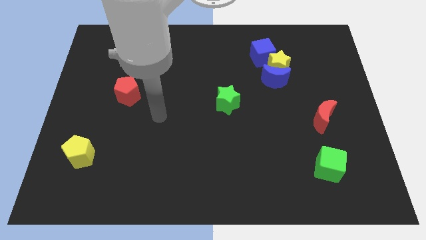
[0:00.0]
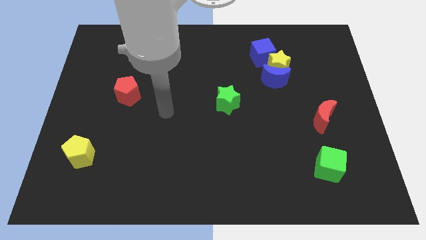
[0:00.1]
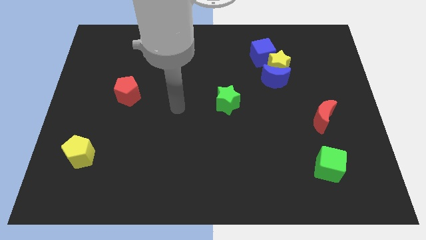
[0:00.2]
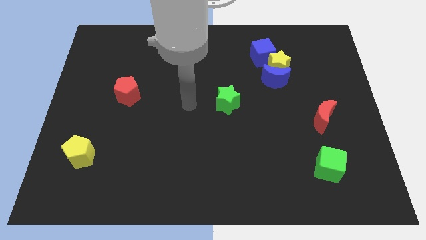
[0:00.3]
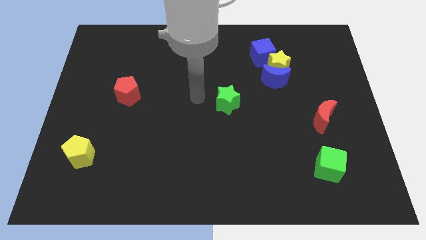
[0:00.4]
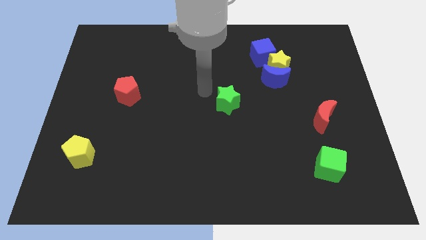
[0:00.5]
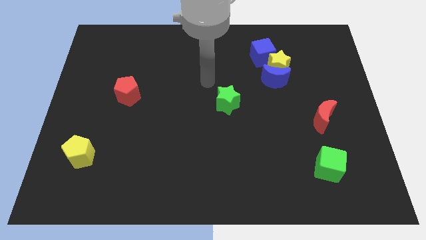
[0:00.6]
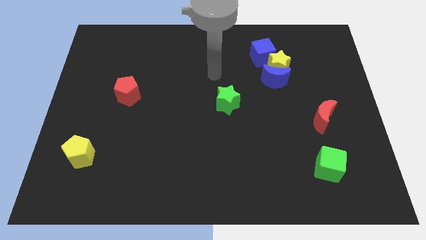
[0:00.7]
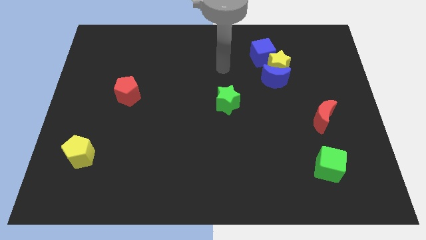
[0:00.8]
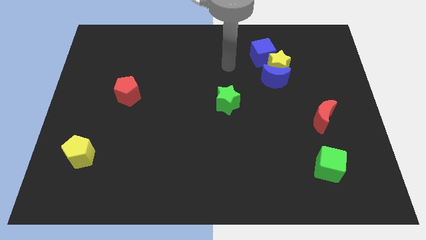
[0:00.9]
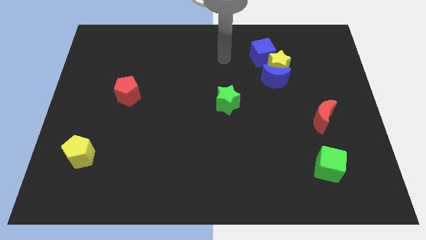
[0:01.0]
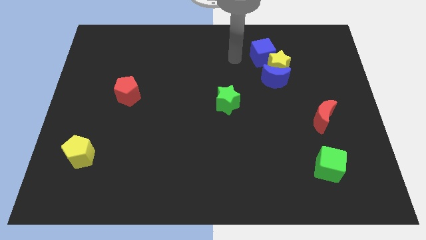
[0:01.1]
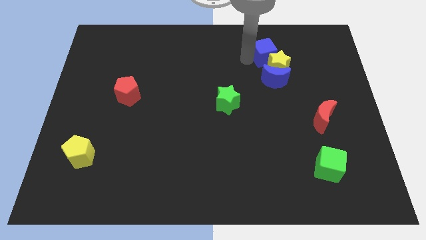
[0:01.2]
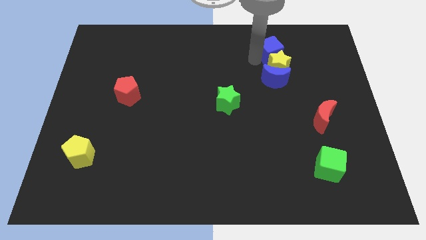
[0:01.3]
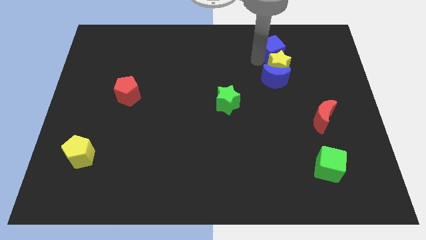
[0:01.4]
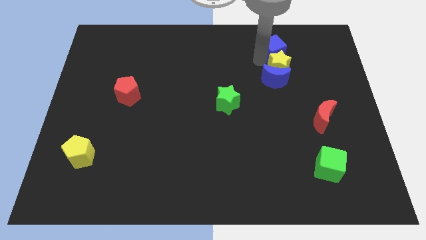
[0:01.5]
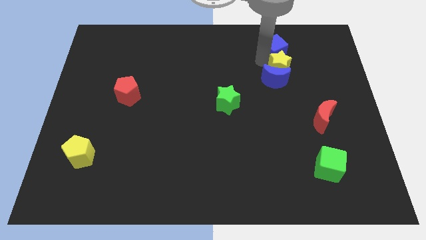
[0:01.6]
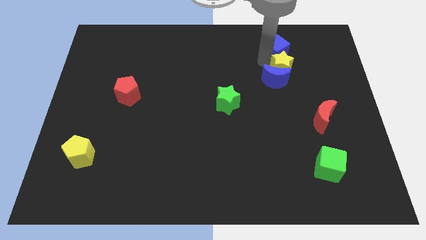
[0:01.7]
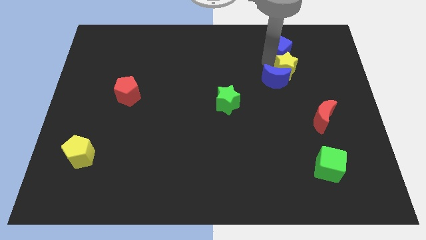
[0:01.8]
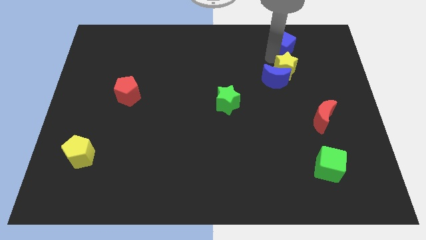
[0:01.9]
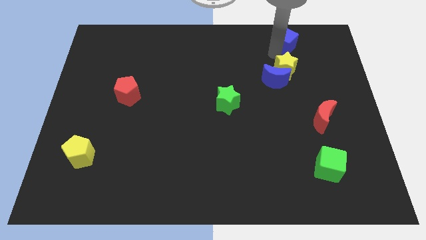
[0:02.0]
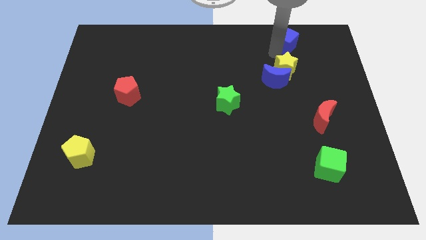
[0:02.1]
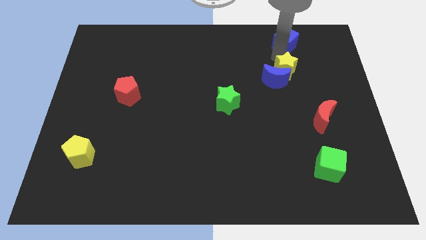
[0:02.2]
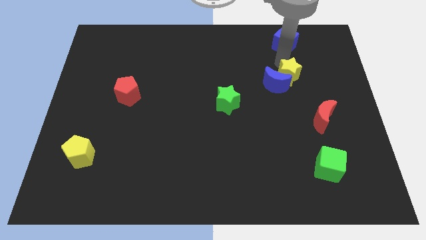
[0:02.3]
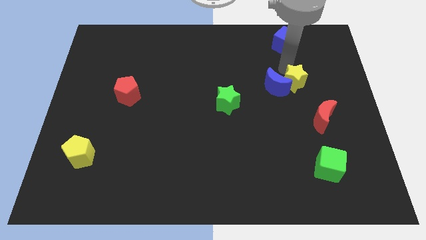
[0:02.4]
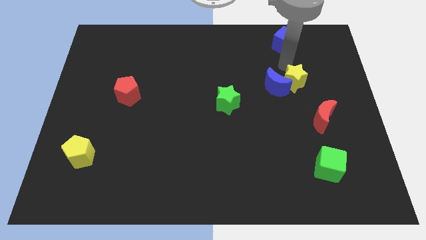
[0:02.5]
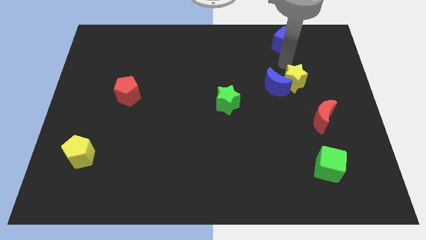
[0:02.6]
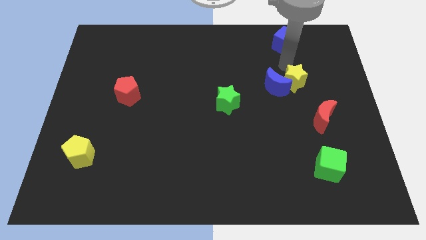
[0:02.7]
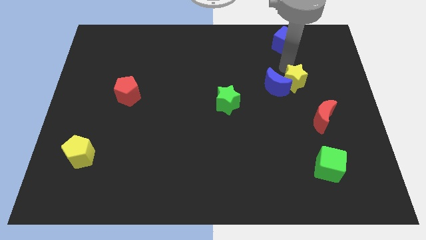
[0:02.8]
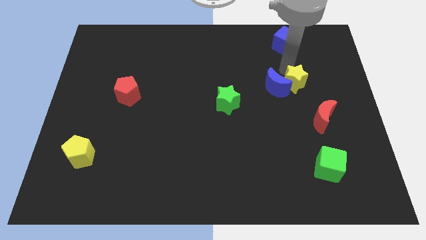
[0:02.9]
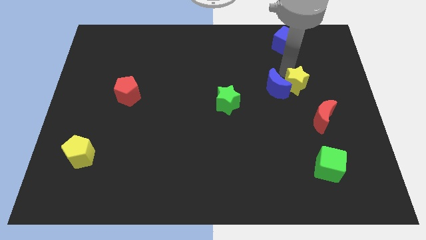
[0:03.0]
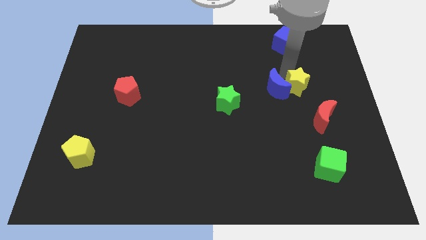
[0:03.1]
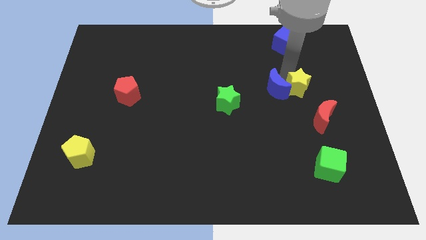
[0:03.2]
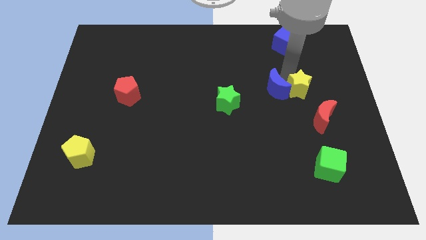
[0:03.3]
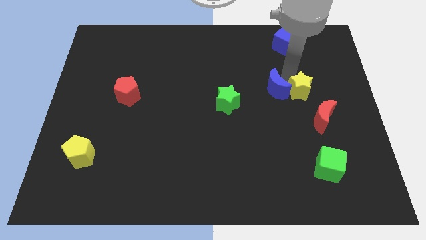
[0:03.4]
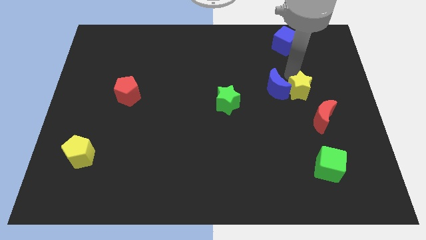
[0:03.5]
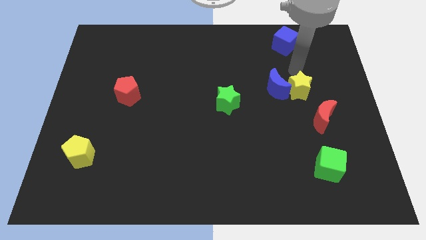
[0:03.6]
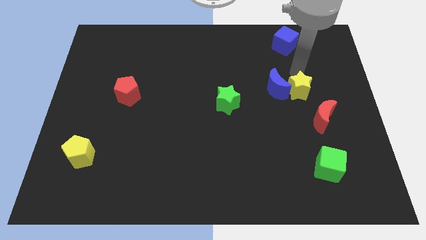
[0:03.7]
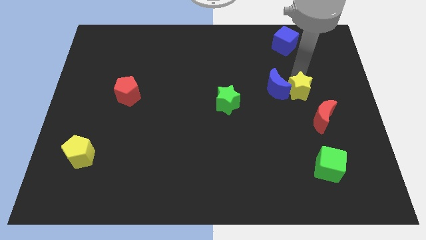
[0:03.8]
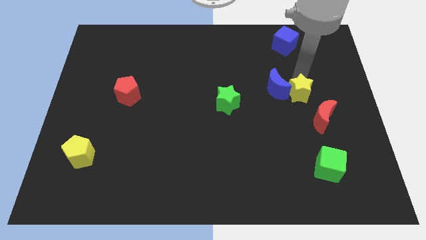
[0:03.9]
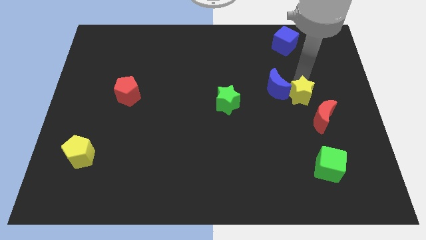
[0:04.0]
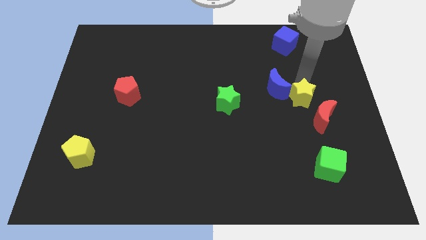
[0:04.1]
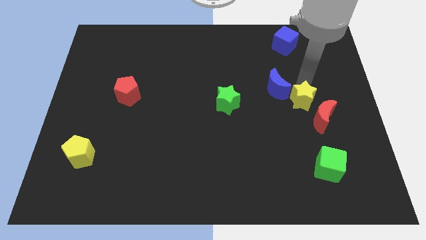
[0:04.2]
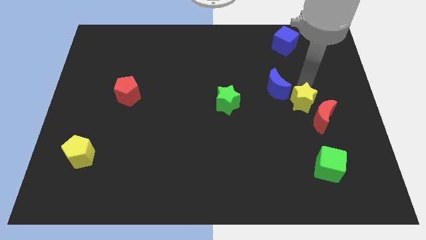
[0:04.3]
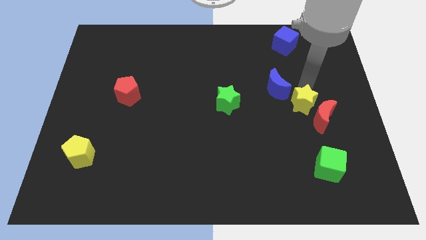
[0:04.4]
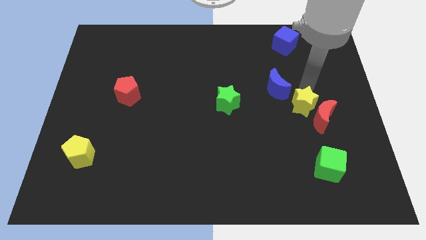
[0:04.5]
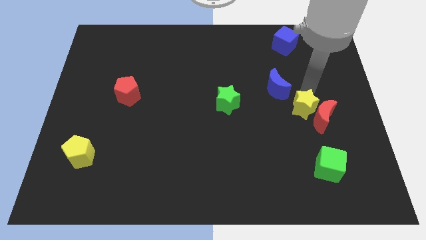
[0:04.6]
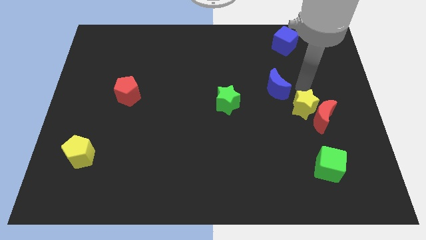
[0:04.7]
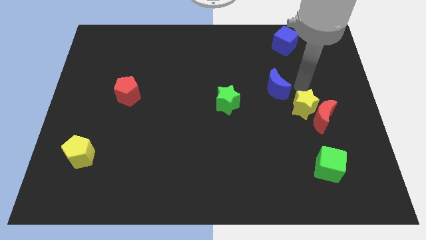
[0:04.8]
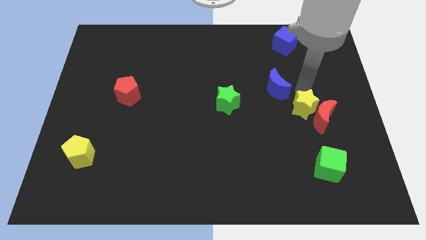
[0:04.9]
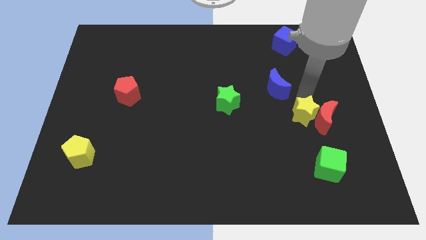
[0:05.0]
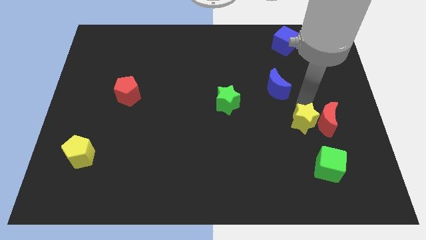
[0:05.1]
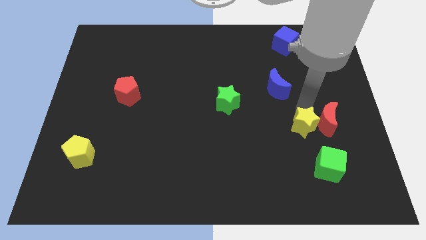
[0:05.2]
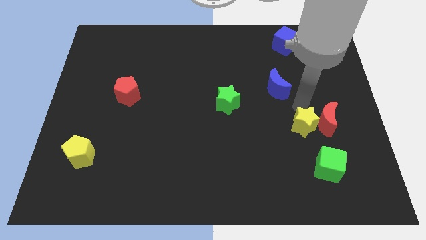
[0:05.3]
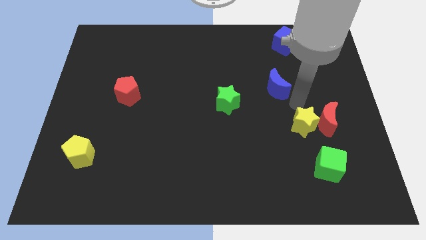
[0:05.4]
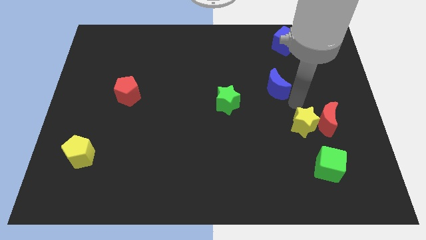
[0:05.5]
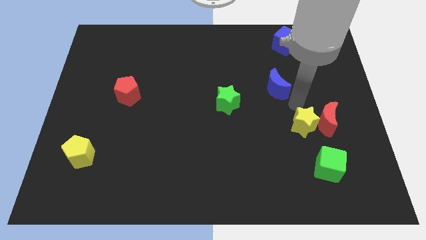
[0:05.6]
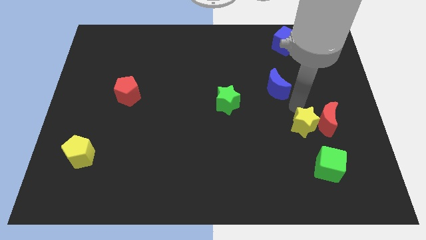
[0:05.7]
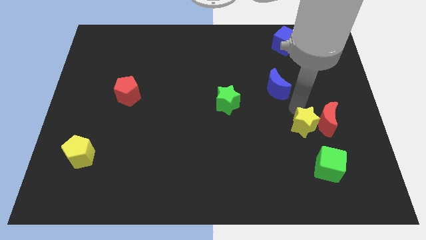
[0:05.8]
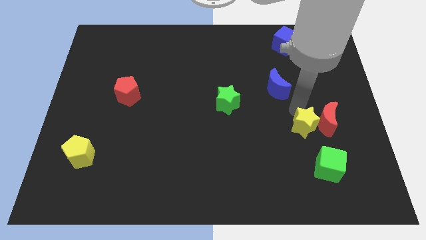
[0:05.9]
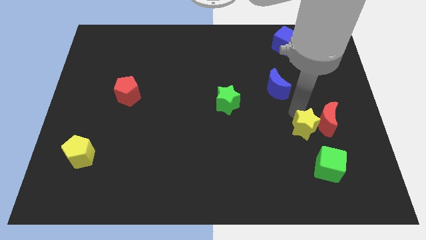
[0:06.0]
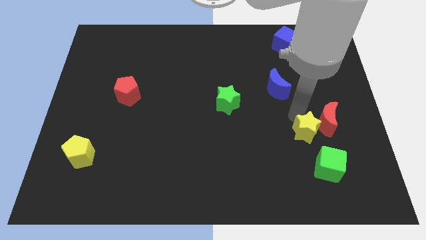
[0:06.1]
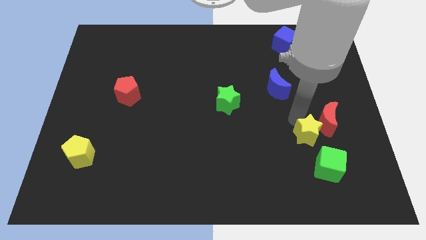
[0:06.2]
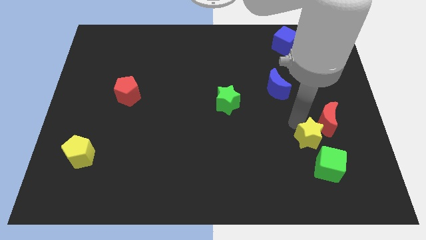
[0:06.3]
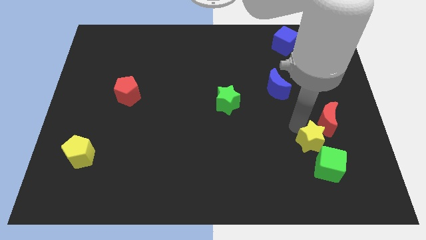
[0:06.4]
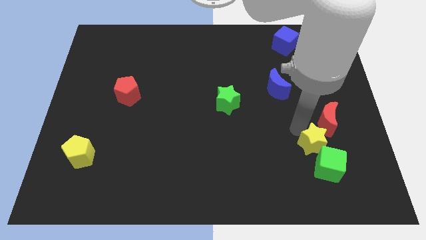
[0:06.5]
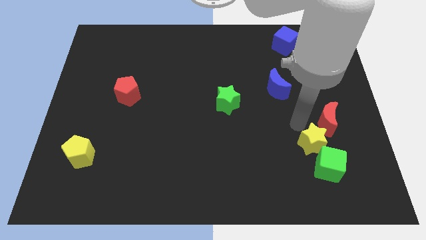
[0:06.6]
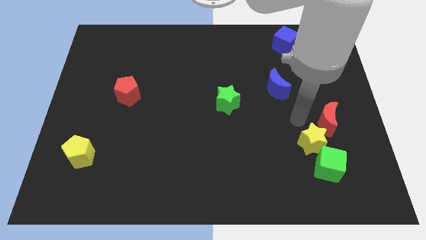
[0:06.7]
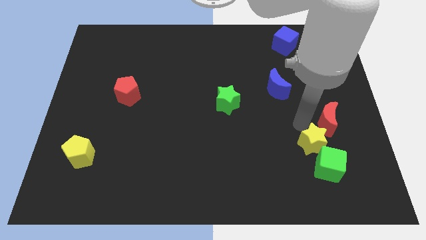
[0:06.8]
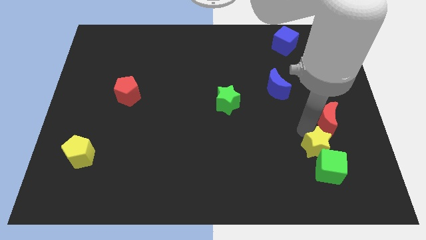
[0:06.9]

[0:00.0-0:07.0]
move the yellow star close to the green cube

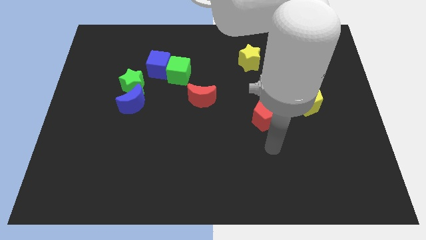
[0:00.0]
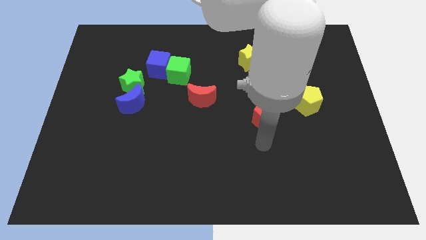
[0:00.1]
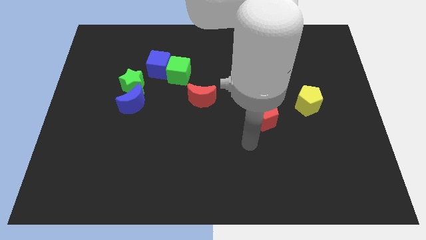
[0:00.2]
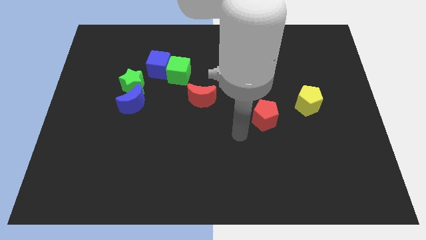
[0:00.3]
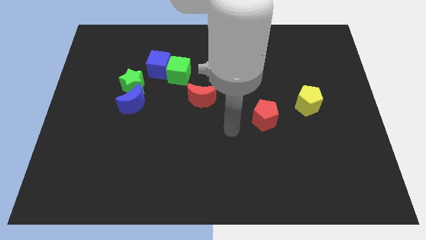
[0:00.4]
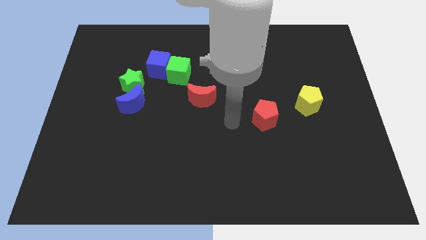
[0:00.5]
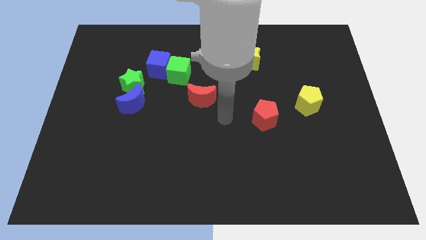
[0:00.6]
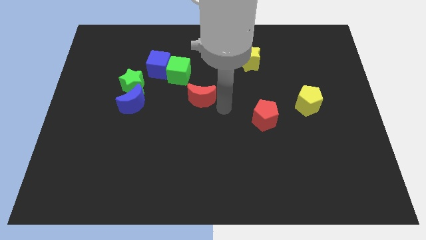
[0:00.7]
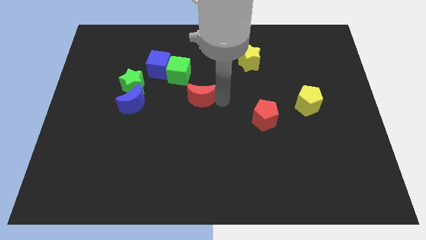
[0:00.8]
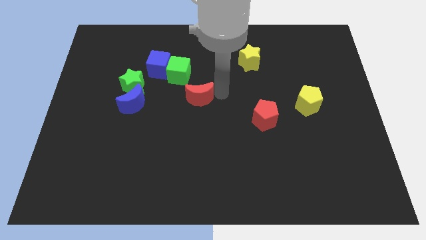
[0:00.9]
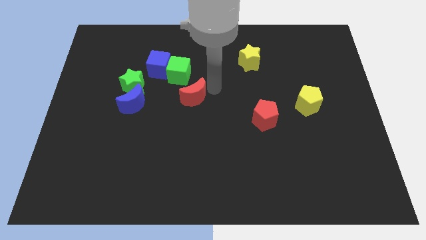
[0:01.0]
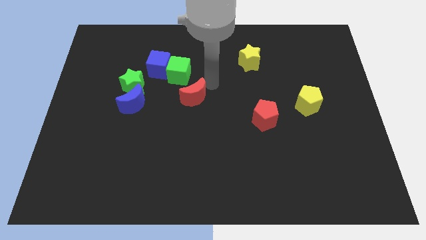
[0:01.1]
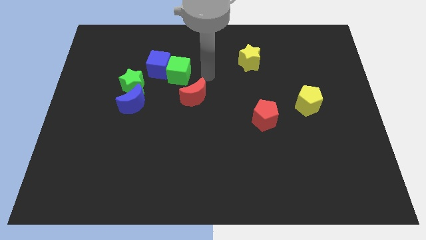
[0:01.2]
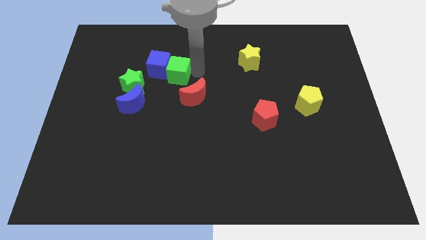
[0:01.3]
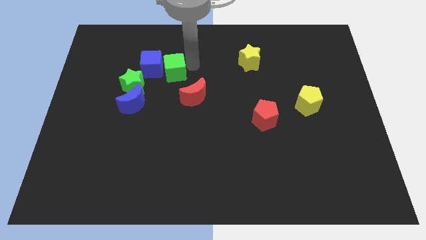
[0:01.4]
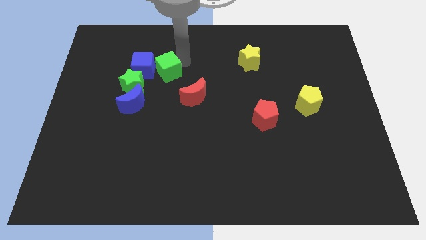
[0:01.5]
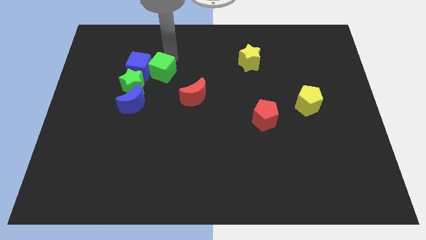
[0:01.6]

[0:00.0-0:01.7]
push the blue cube towards the green star
